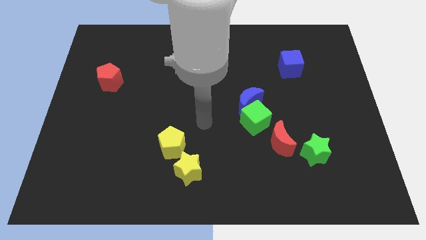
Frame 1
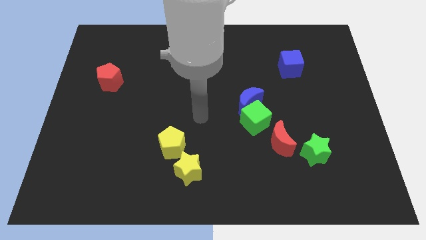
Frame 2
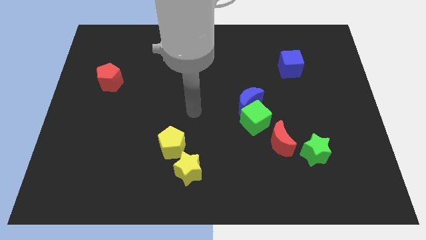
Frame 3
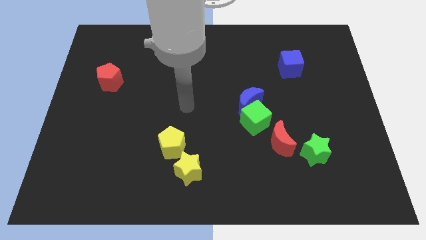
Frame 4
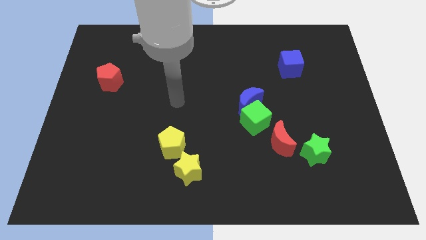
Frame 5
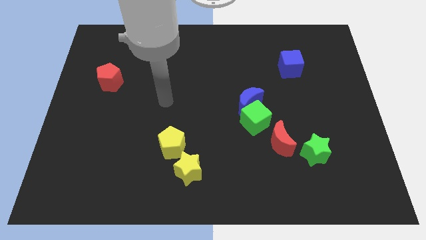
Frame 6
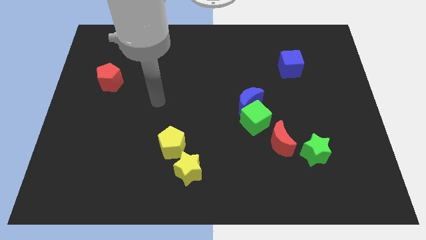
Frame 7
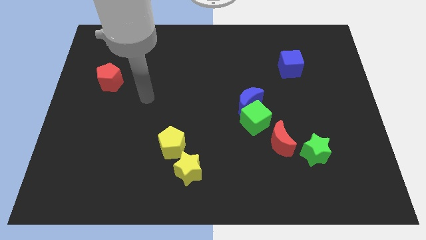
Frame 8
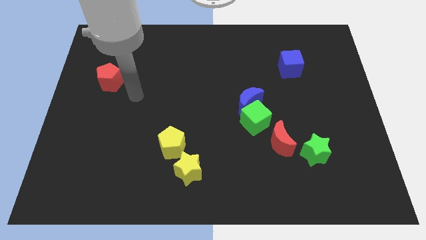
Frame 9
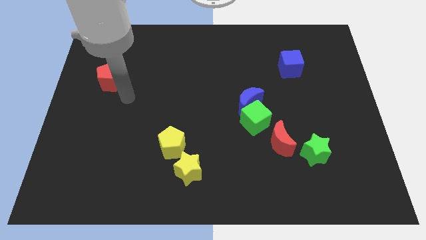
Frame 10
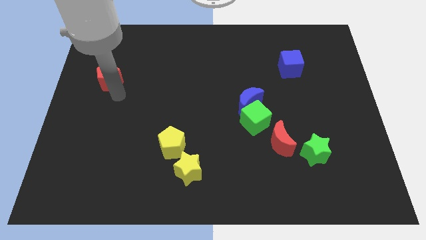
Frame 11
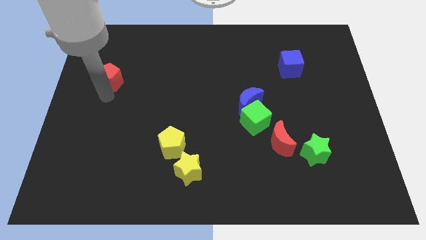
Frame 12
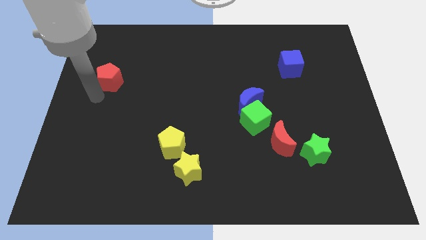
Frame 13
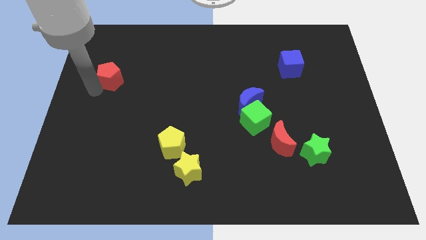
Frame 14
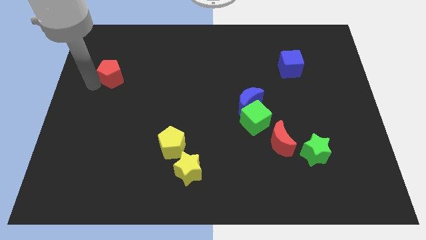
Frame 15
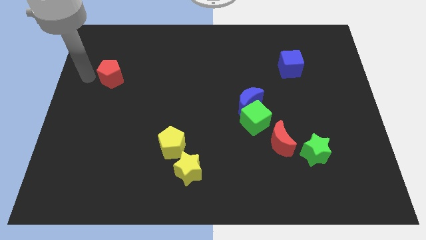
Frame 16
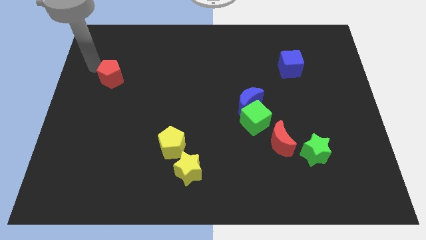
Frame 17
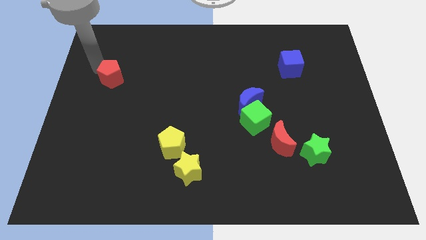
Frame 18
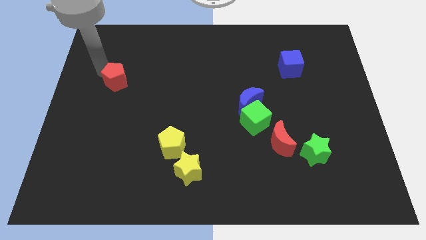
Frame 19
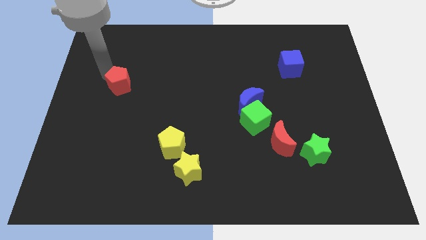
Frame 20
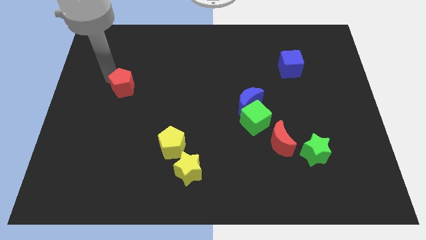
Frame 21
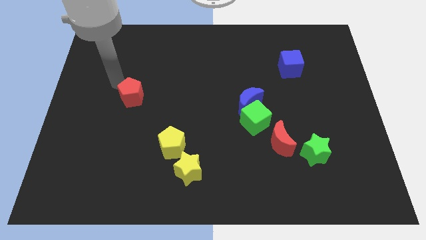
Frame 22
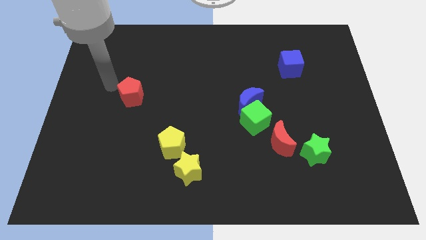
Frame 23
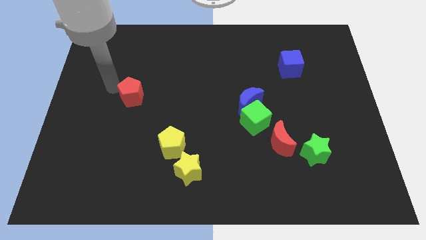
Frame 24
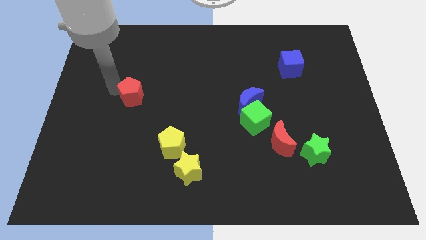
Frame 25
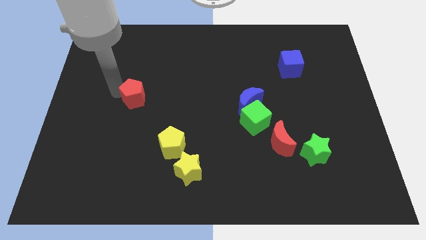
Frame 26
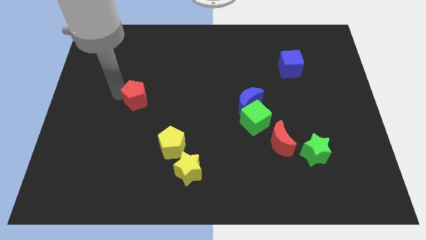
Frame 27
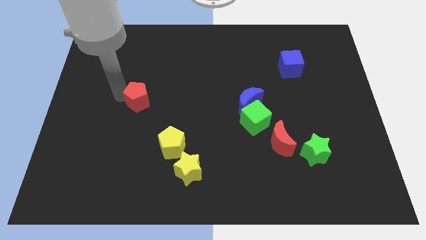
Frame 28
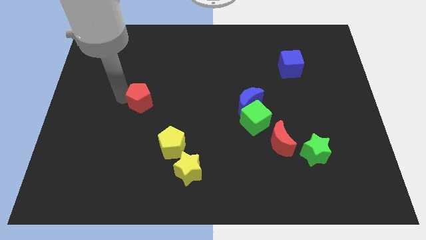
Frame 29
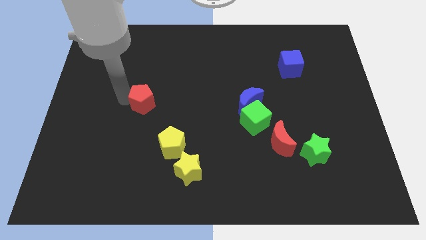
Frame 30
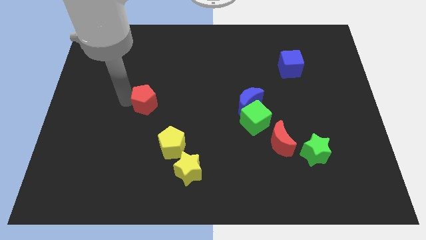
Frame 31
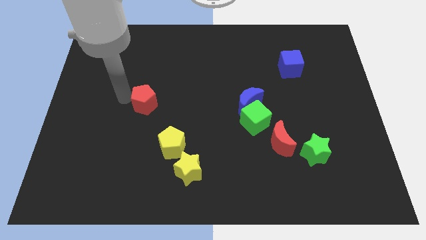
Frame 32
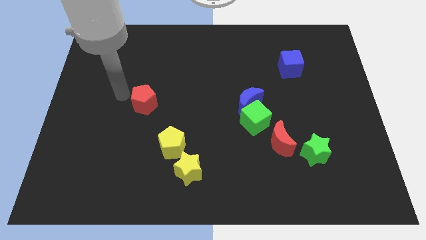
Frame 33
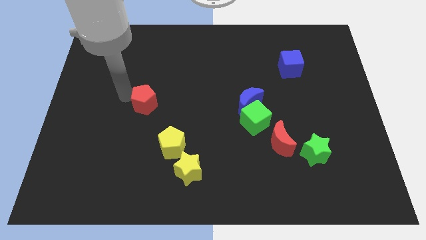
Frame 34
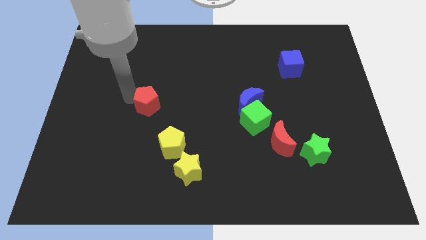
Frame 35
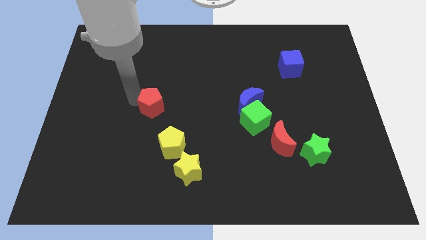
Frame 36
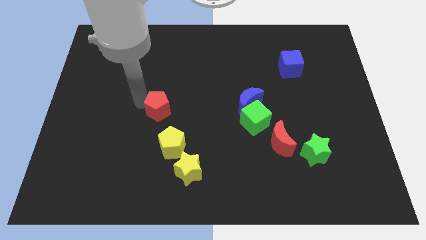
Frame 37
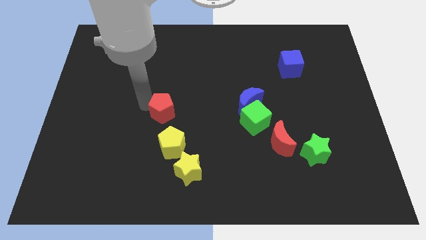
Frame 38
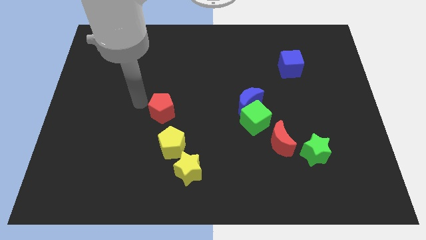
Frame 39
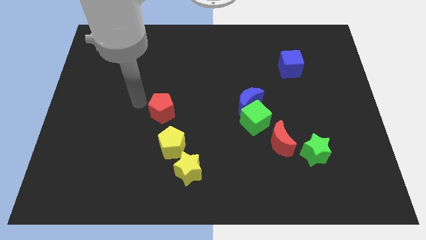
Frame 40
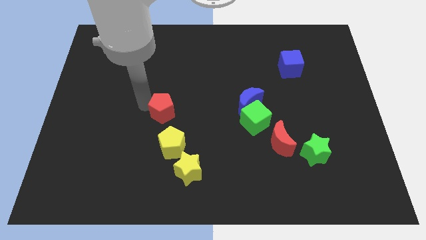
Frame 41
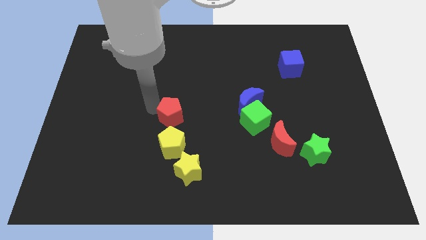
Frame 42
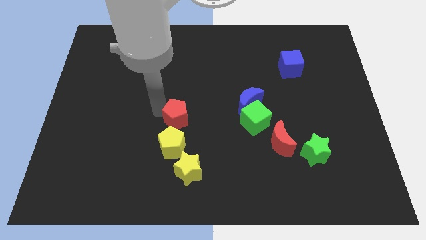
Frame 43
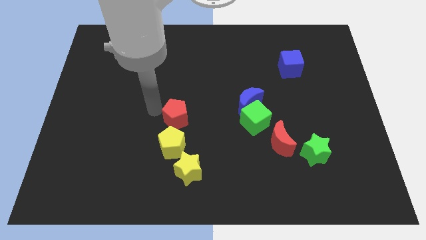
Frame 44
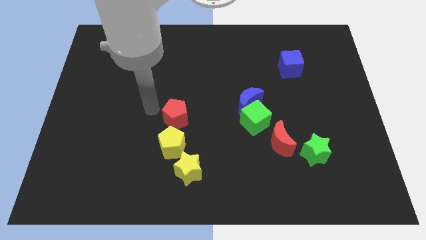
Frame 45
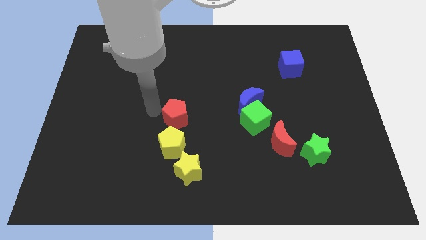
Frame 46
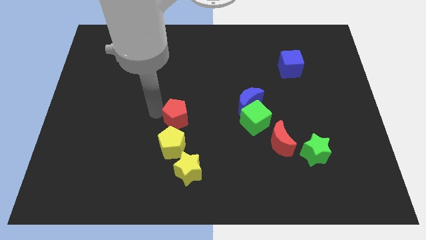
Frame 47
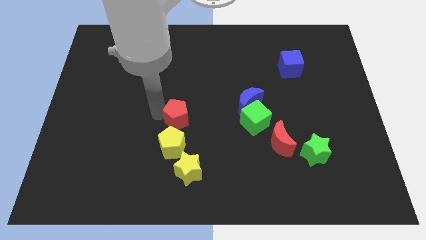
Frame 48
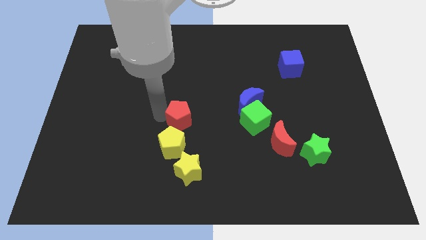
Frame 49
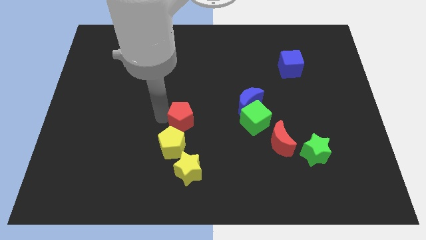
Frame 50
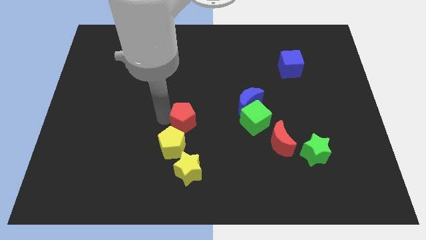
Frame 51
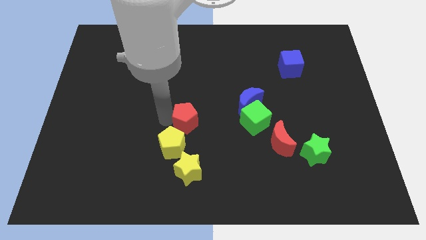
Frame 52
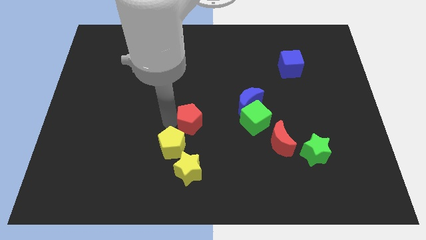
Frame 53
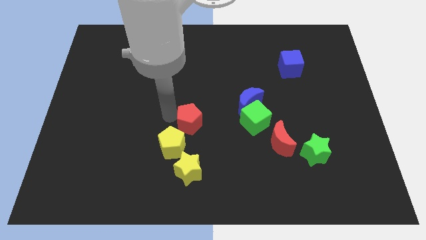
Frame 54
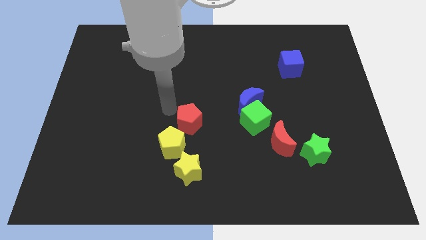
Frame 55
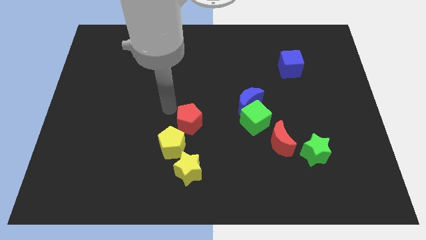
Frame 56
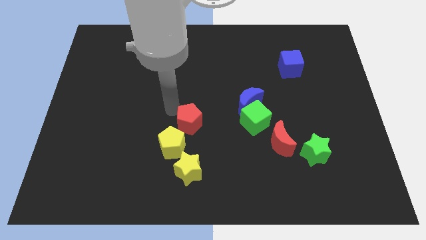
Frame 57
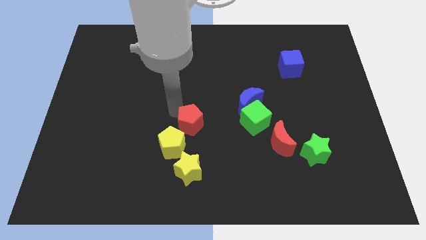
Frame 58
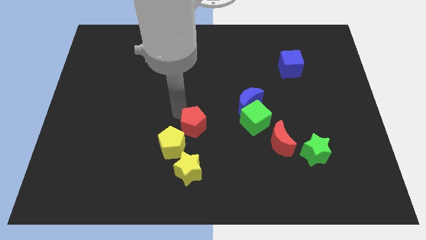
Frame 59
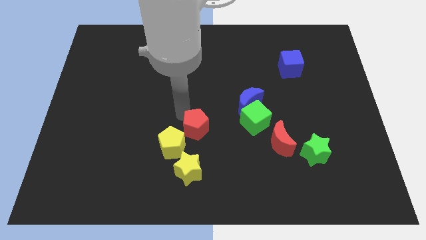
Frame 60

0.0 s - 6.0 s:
put the red pentagon to the right of the yellow pentagon
